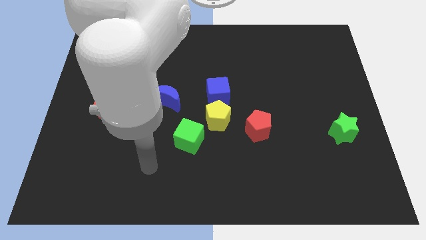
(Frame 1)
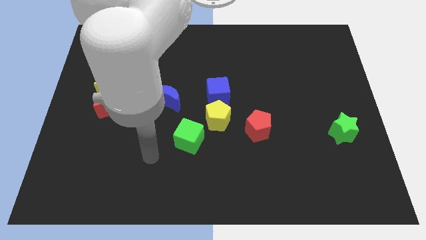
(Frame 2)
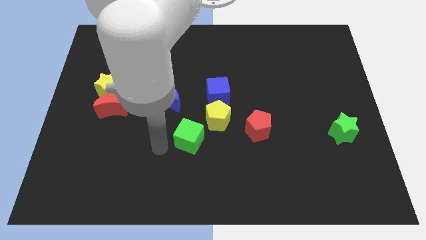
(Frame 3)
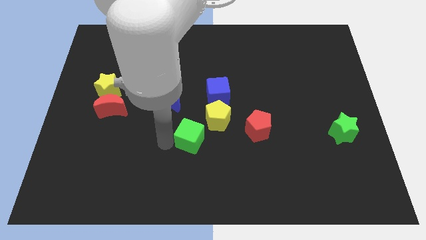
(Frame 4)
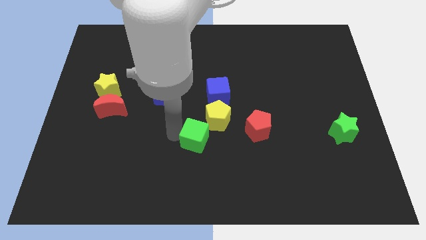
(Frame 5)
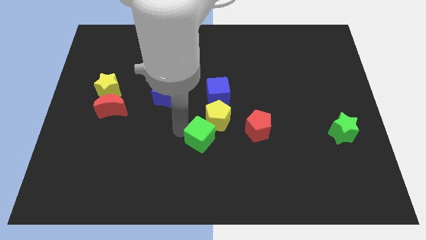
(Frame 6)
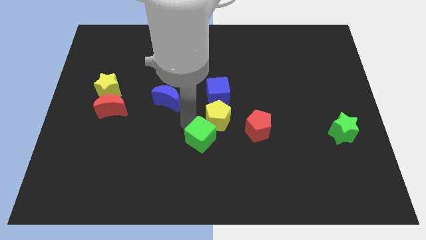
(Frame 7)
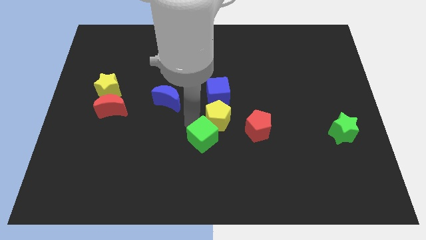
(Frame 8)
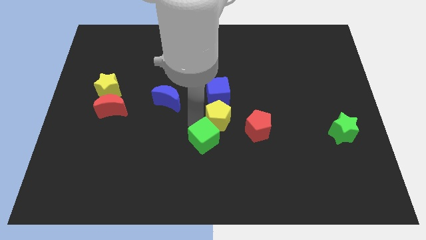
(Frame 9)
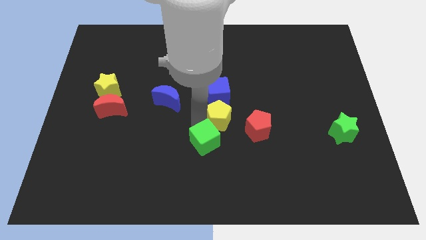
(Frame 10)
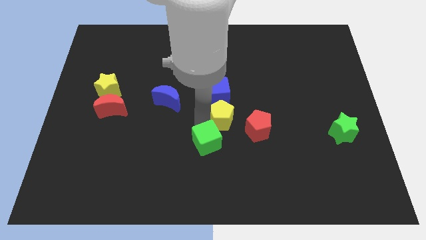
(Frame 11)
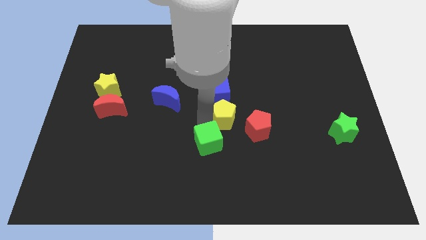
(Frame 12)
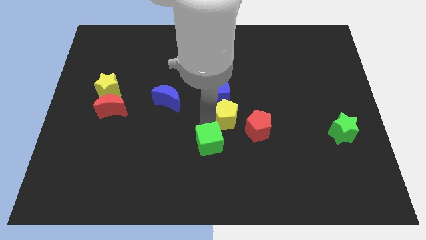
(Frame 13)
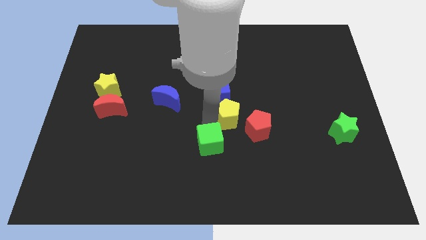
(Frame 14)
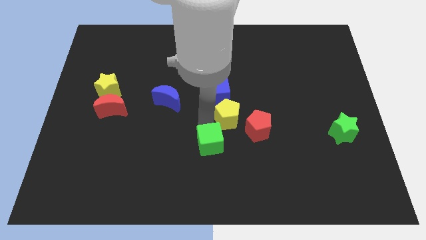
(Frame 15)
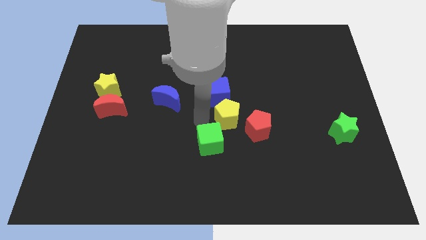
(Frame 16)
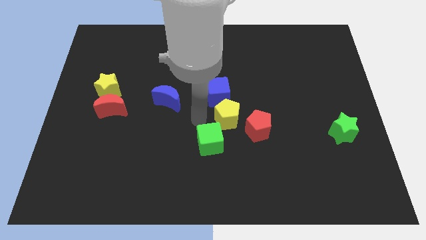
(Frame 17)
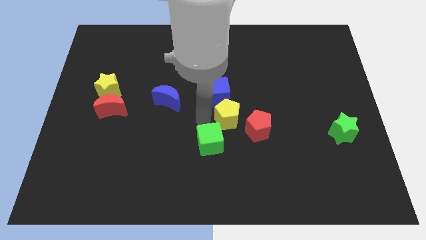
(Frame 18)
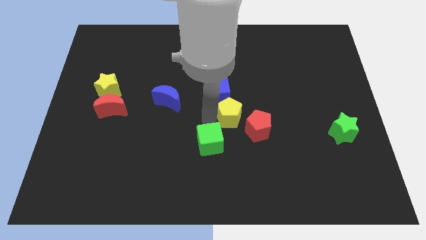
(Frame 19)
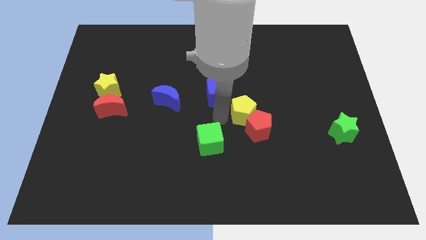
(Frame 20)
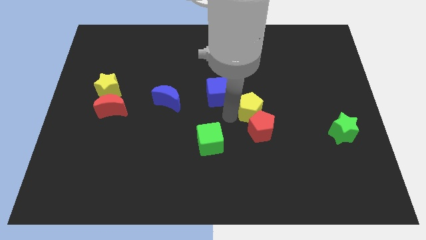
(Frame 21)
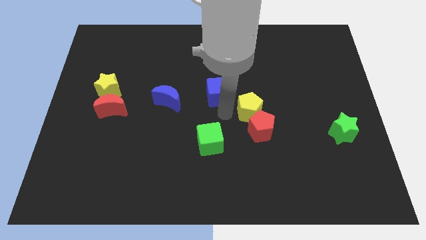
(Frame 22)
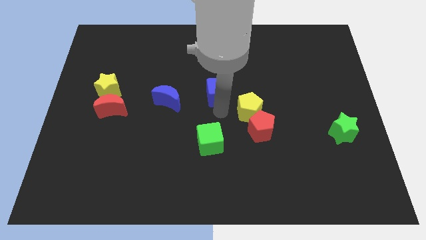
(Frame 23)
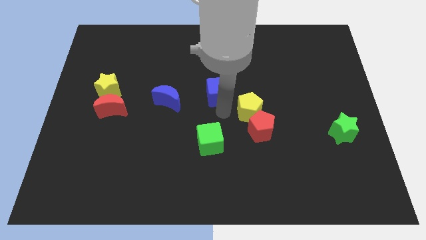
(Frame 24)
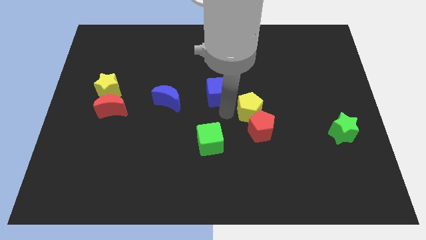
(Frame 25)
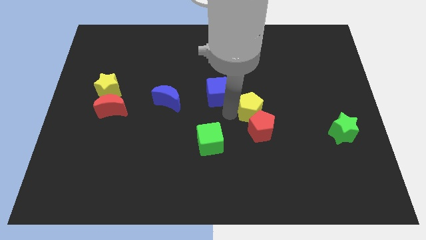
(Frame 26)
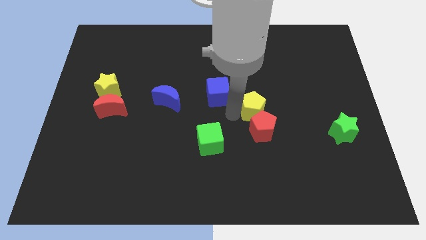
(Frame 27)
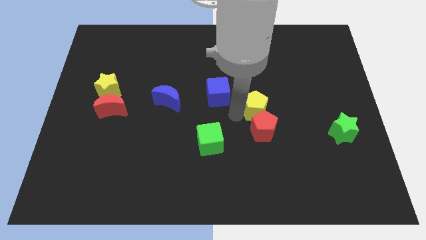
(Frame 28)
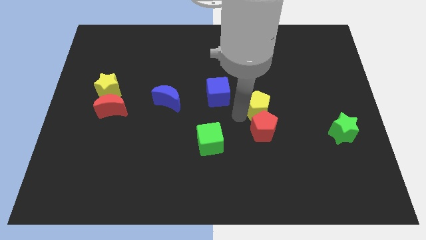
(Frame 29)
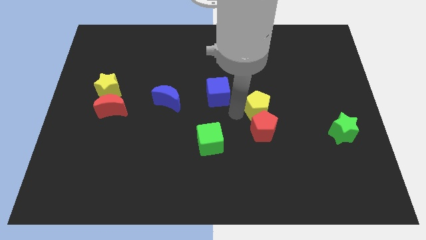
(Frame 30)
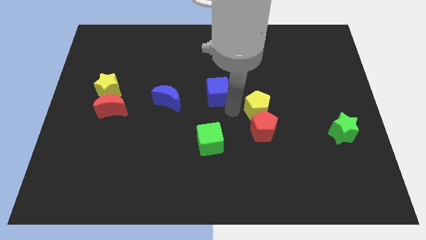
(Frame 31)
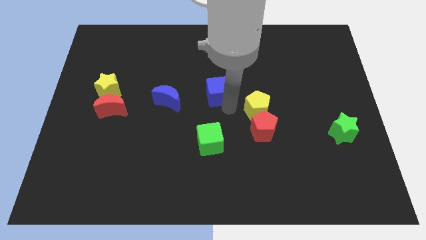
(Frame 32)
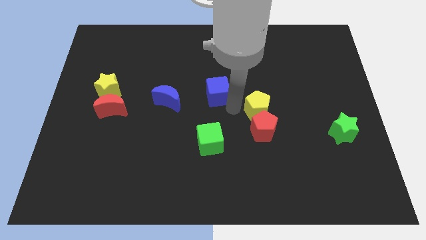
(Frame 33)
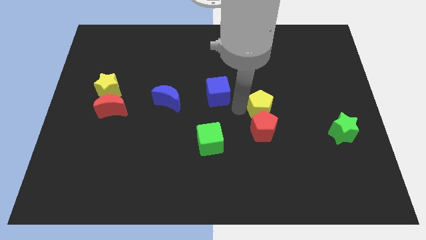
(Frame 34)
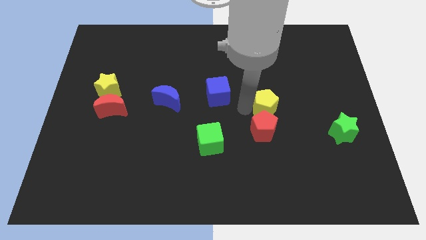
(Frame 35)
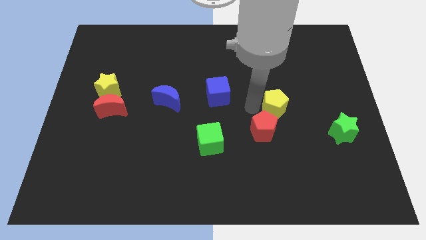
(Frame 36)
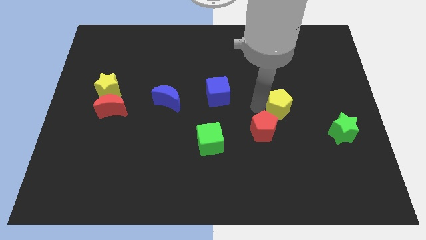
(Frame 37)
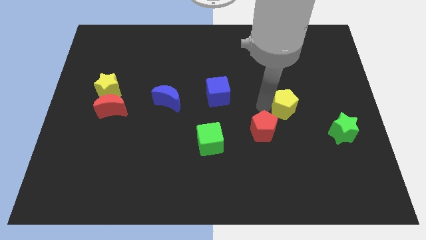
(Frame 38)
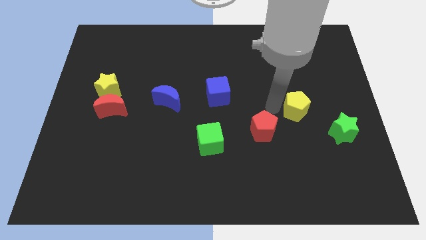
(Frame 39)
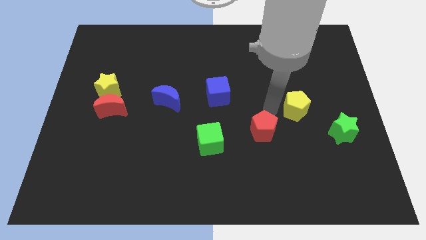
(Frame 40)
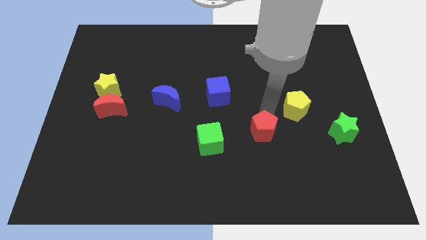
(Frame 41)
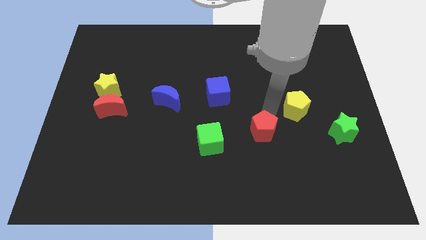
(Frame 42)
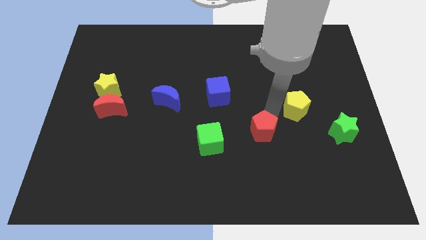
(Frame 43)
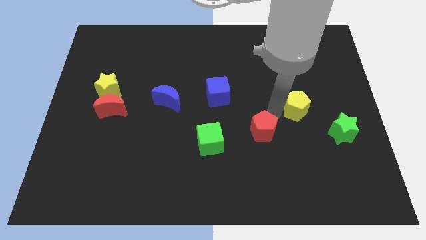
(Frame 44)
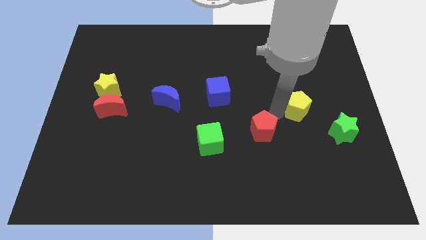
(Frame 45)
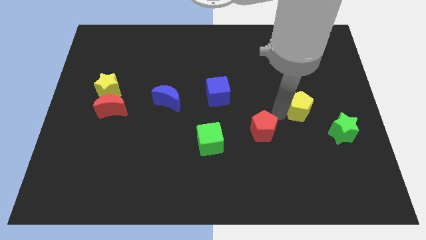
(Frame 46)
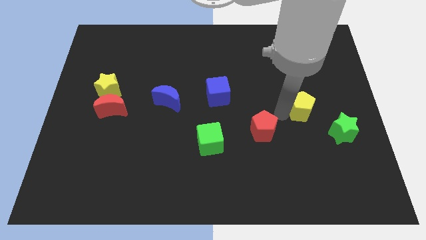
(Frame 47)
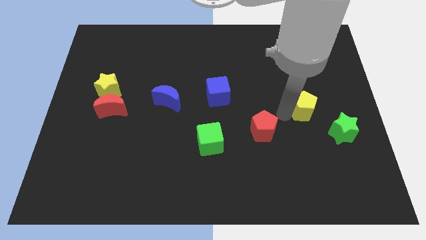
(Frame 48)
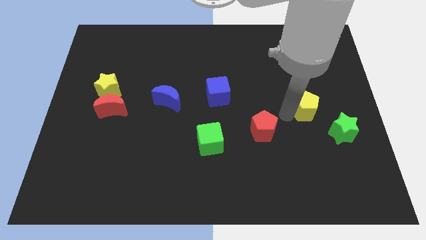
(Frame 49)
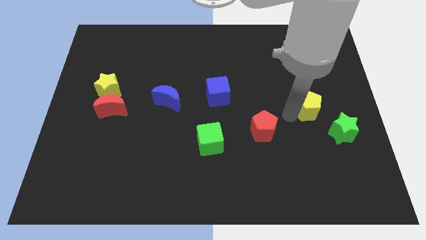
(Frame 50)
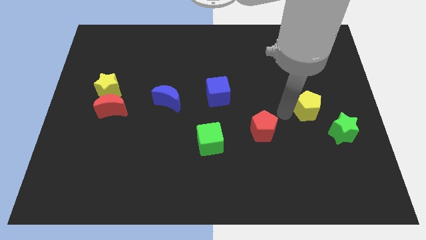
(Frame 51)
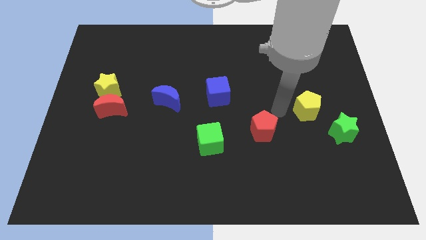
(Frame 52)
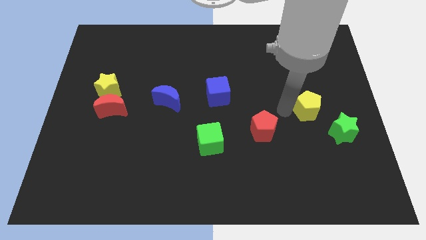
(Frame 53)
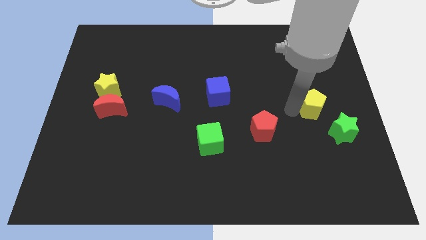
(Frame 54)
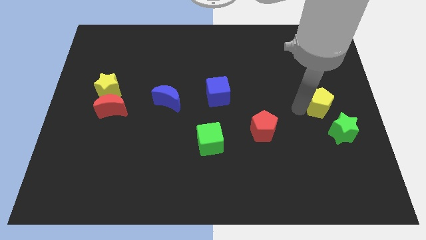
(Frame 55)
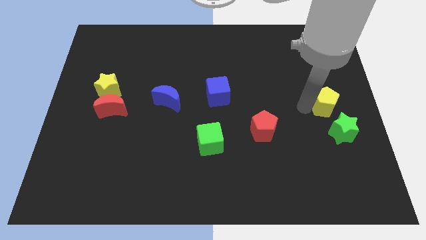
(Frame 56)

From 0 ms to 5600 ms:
push the yellow pentagon to the right side of the board
